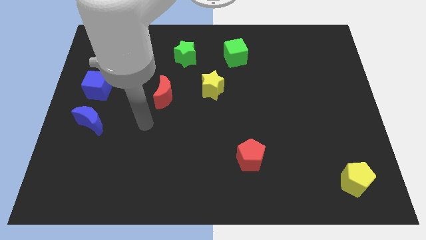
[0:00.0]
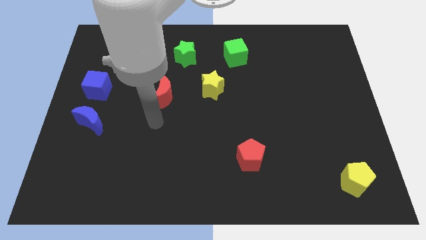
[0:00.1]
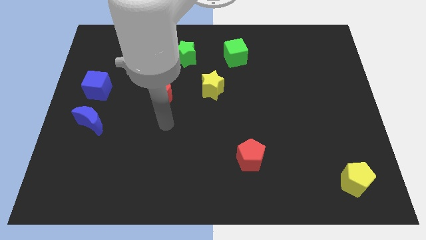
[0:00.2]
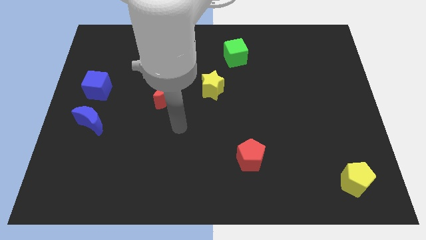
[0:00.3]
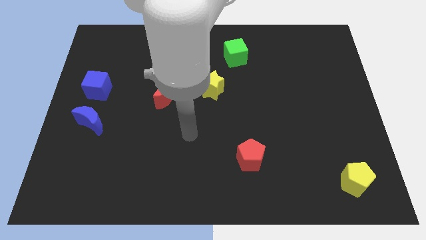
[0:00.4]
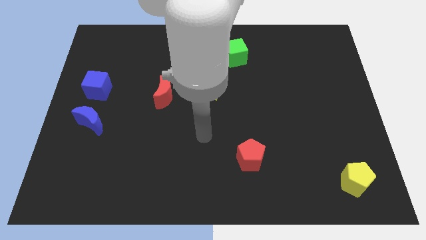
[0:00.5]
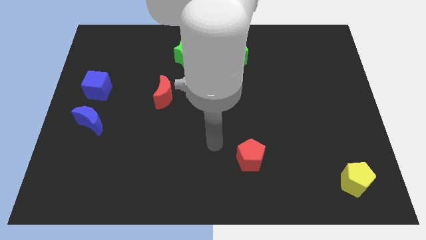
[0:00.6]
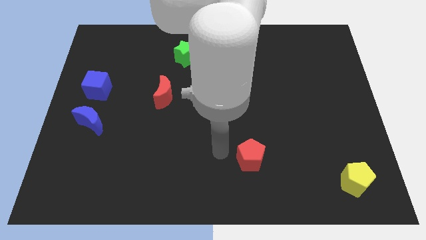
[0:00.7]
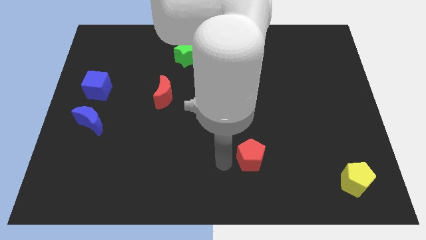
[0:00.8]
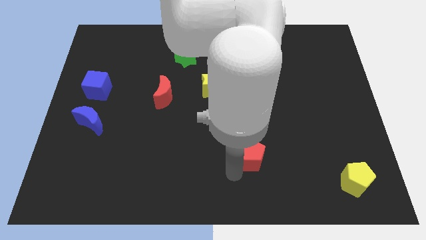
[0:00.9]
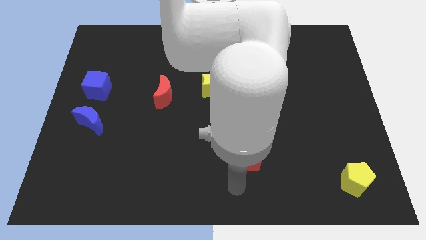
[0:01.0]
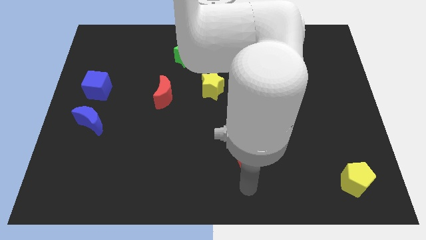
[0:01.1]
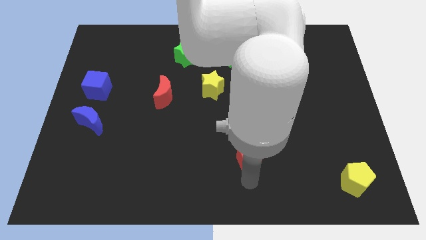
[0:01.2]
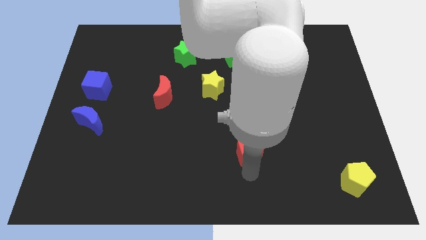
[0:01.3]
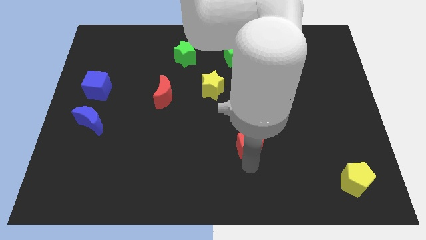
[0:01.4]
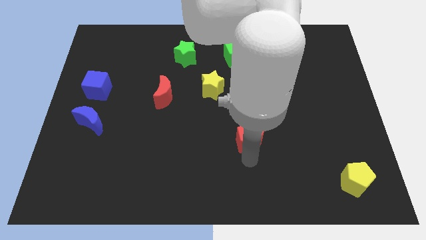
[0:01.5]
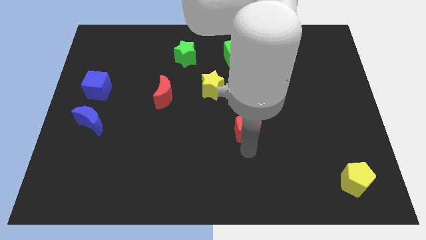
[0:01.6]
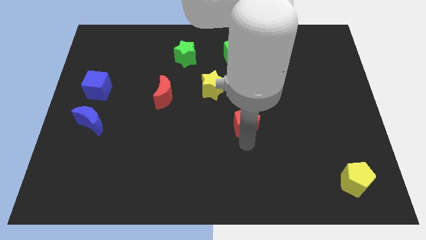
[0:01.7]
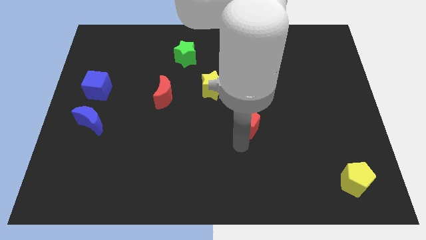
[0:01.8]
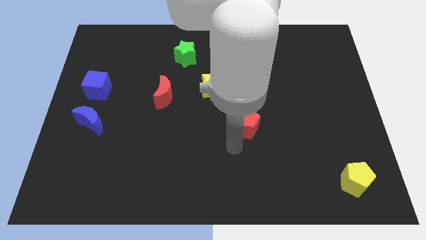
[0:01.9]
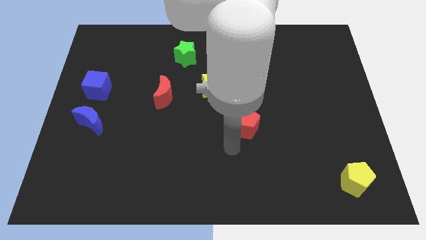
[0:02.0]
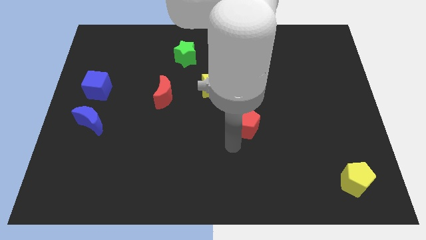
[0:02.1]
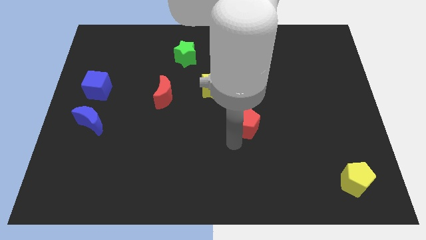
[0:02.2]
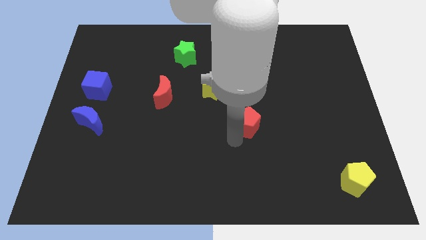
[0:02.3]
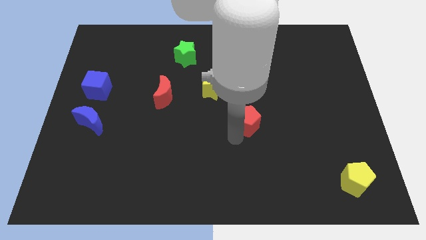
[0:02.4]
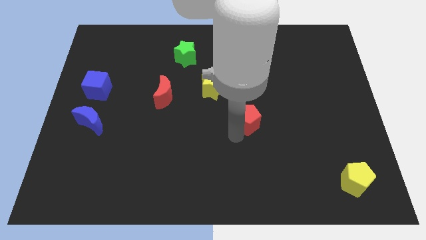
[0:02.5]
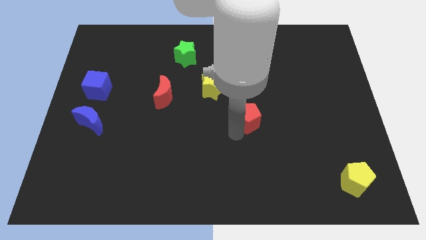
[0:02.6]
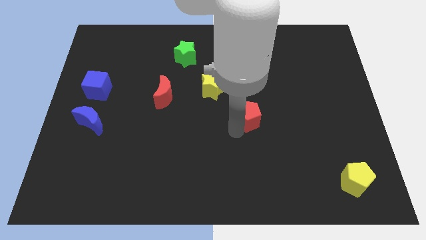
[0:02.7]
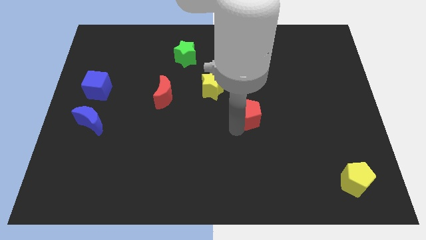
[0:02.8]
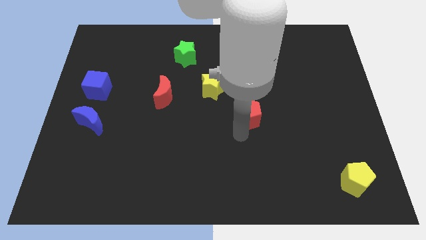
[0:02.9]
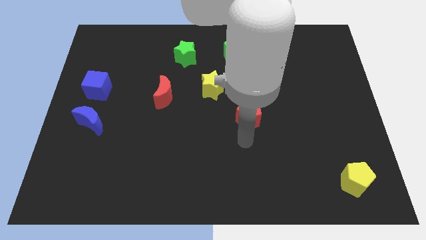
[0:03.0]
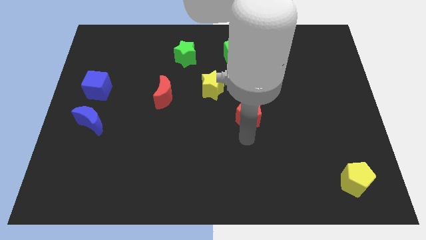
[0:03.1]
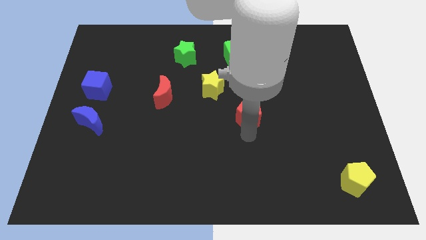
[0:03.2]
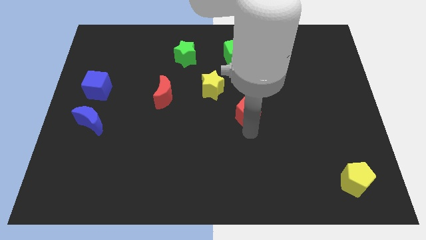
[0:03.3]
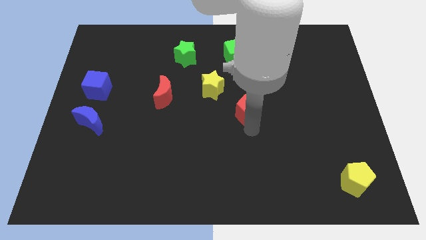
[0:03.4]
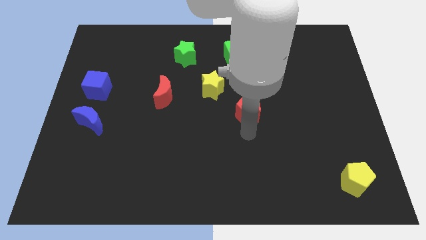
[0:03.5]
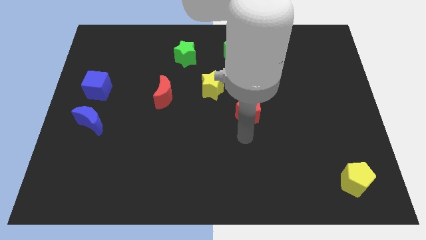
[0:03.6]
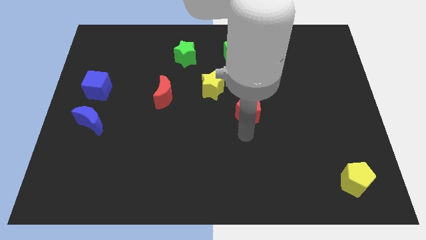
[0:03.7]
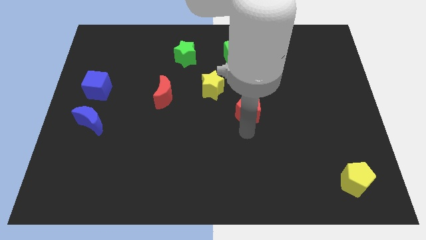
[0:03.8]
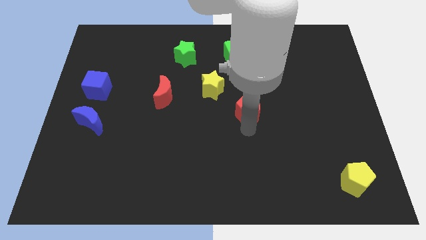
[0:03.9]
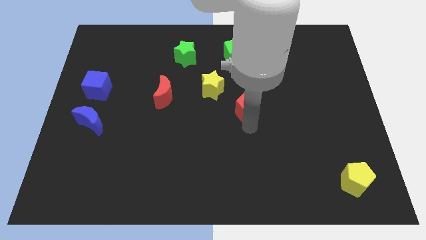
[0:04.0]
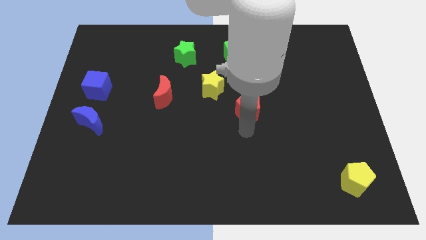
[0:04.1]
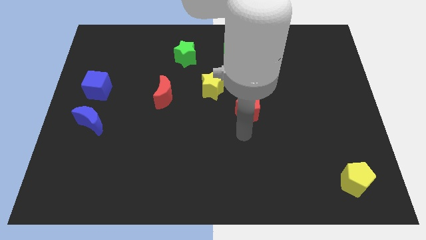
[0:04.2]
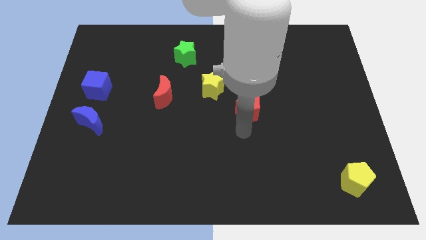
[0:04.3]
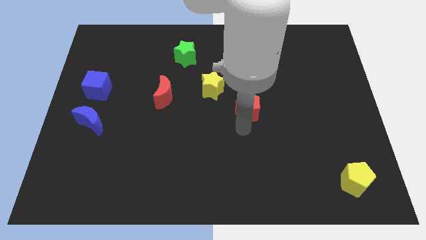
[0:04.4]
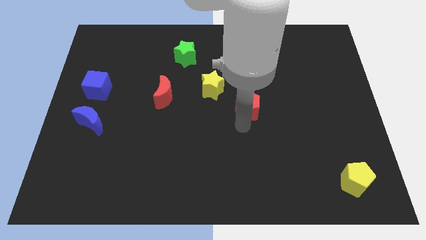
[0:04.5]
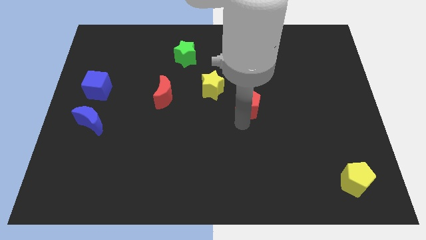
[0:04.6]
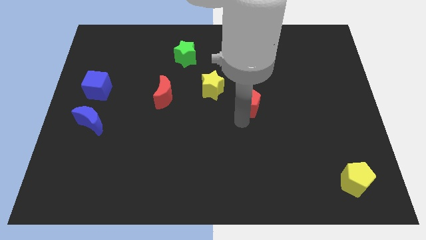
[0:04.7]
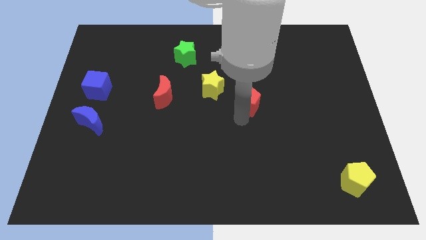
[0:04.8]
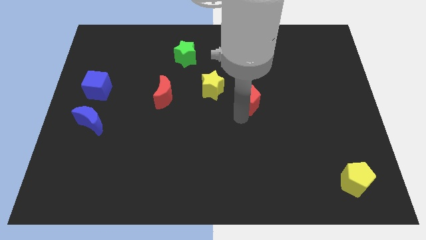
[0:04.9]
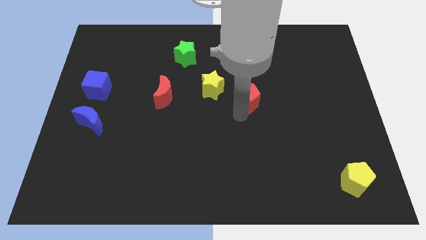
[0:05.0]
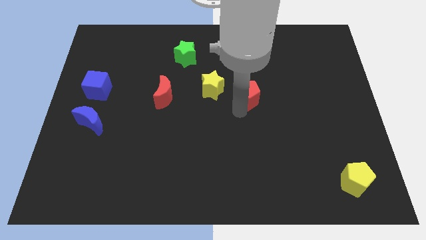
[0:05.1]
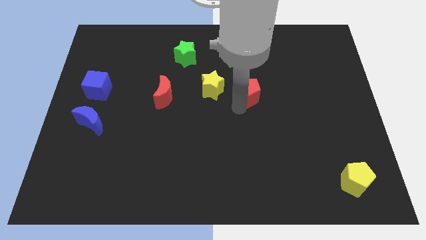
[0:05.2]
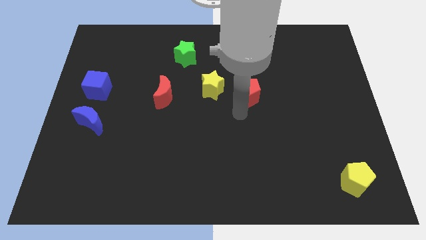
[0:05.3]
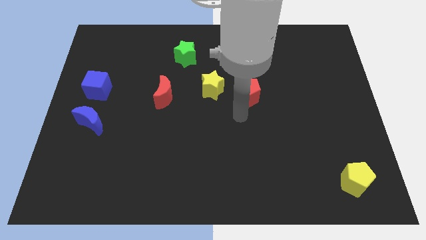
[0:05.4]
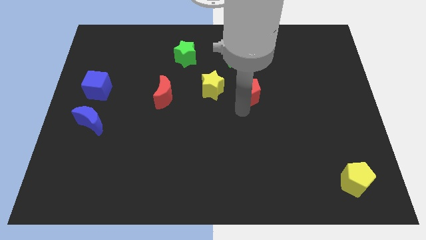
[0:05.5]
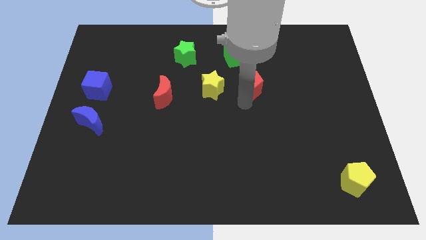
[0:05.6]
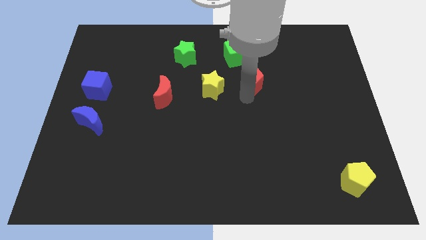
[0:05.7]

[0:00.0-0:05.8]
put the red pentagon to the bottom right side of the green cube

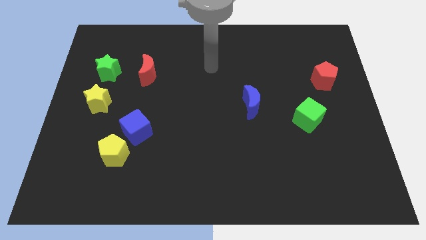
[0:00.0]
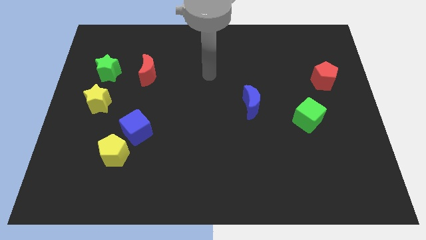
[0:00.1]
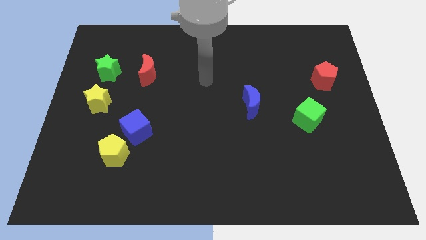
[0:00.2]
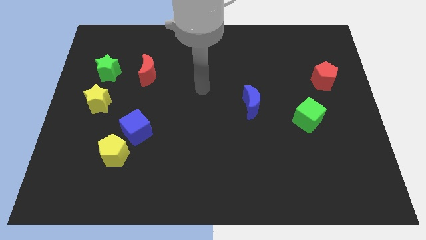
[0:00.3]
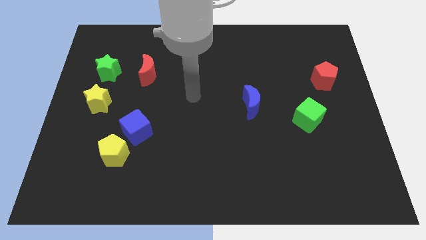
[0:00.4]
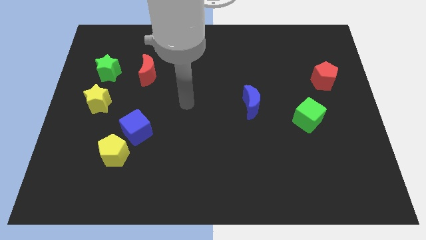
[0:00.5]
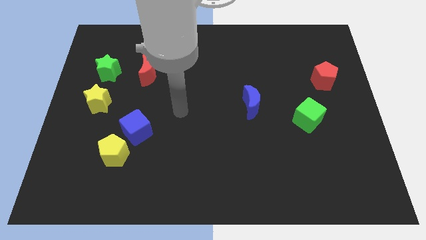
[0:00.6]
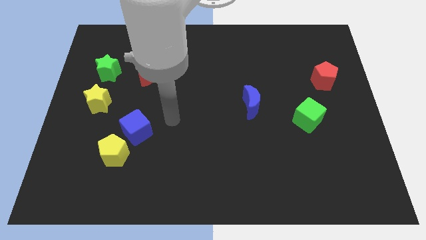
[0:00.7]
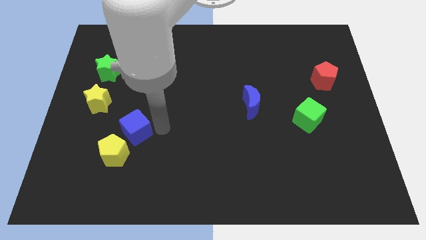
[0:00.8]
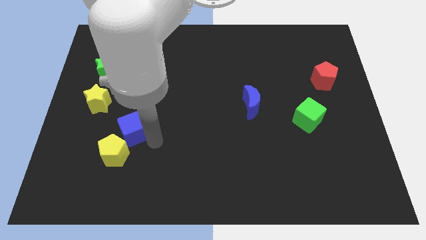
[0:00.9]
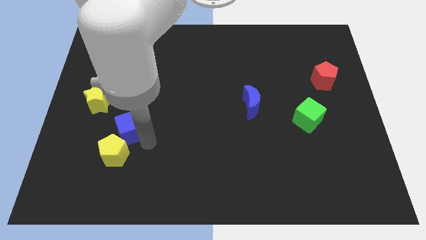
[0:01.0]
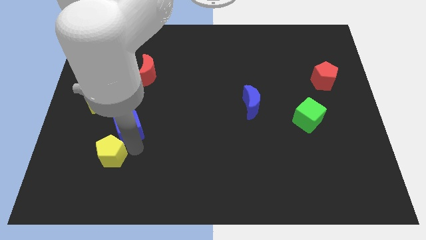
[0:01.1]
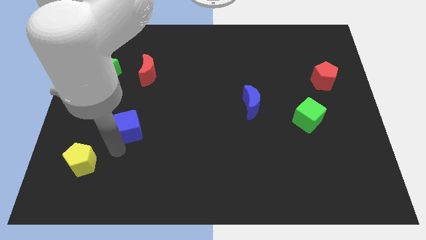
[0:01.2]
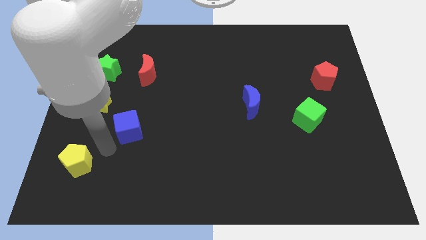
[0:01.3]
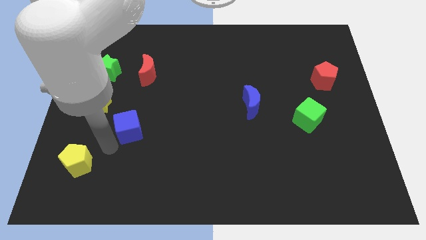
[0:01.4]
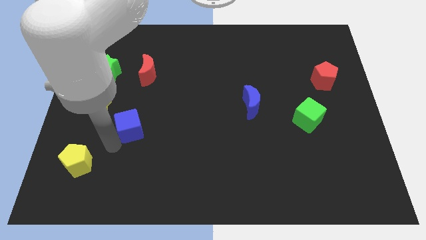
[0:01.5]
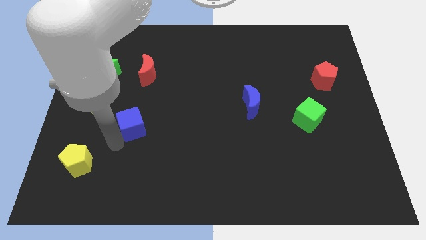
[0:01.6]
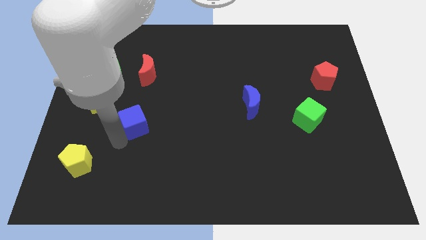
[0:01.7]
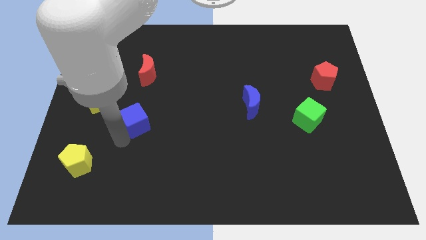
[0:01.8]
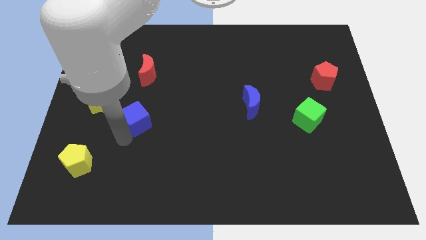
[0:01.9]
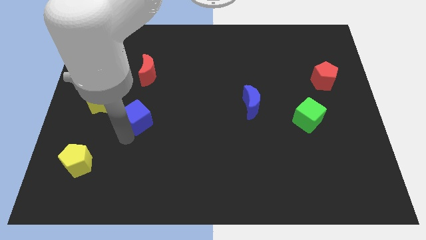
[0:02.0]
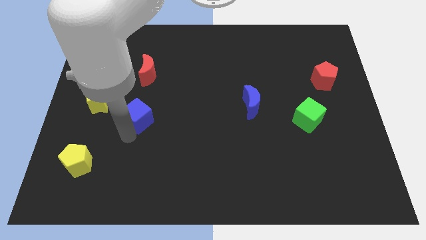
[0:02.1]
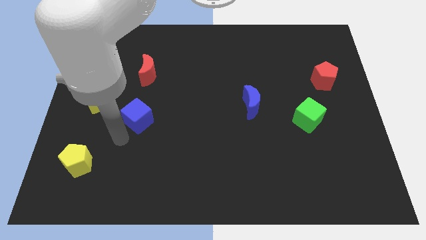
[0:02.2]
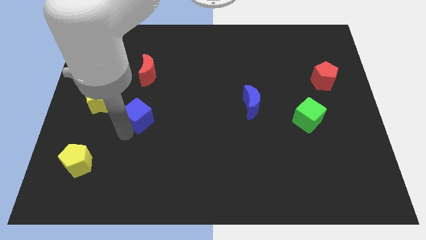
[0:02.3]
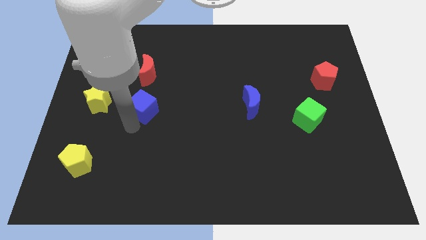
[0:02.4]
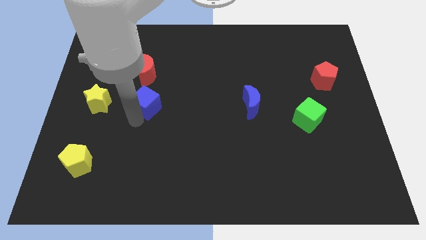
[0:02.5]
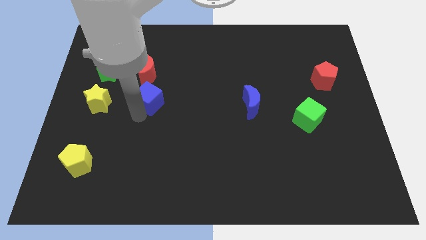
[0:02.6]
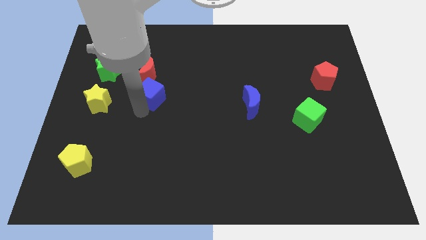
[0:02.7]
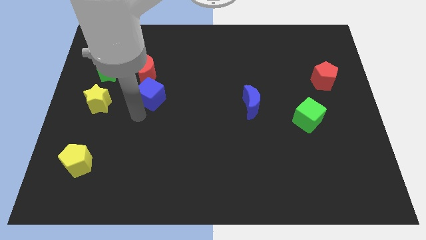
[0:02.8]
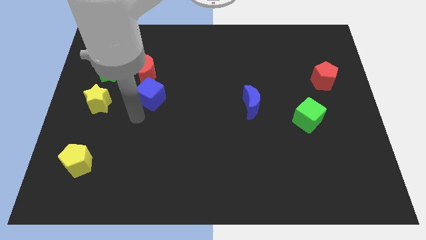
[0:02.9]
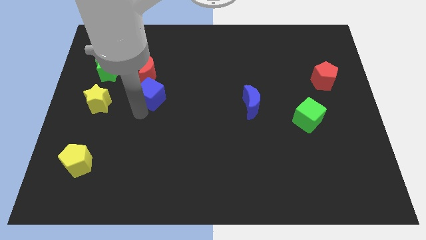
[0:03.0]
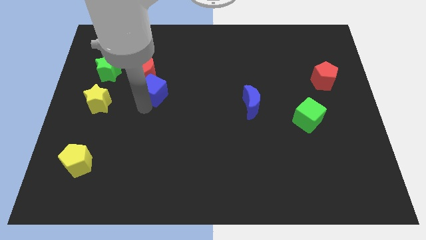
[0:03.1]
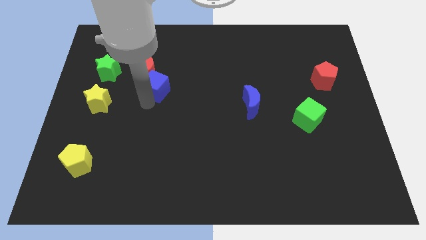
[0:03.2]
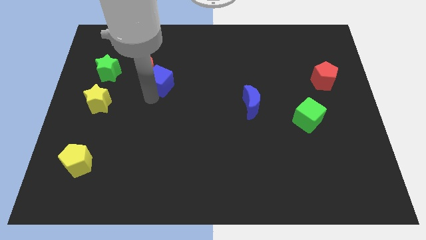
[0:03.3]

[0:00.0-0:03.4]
slide the blue cube to the right side of the green star
